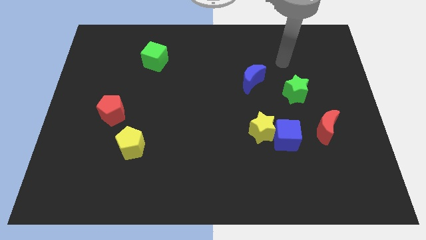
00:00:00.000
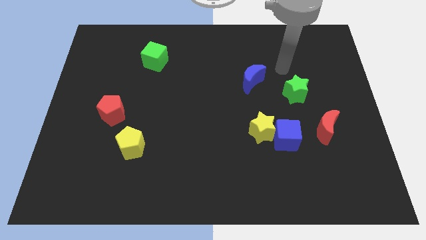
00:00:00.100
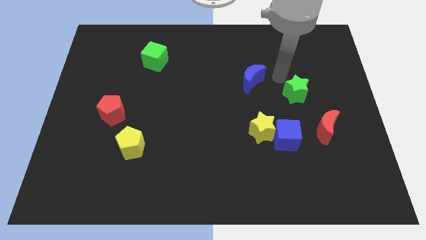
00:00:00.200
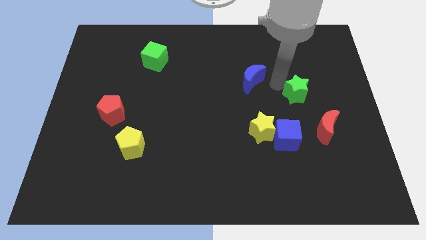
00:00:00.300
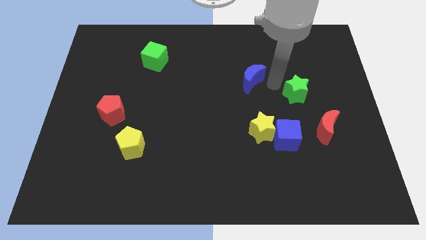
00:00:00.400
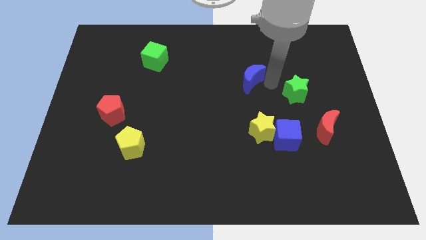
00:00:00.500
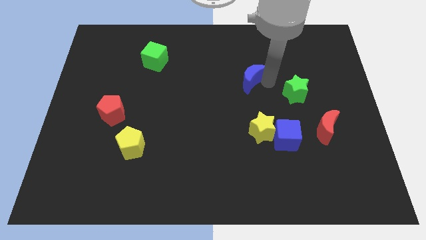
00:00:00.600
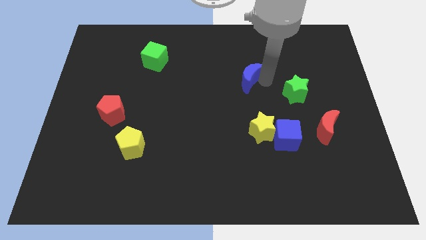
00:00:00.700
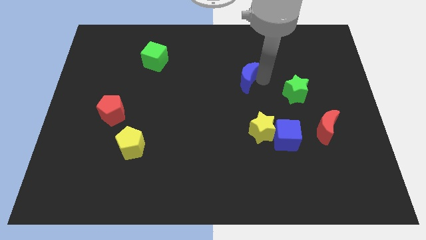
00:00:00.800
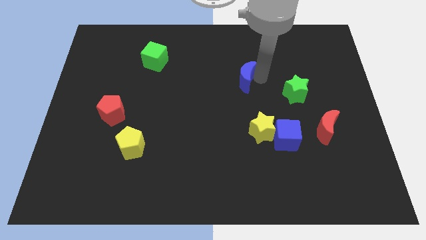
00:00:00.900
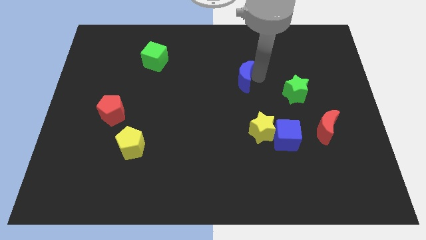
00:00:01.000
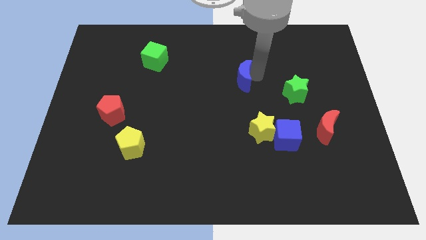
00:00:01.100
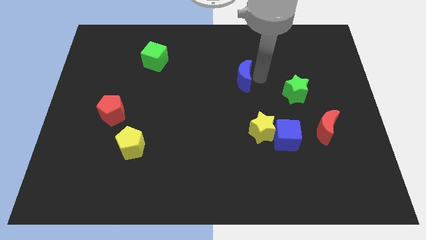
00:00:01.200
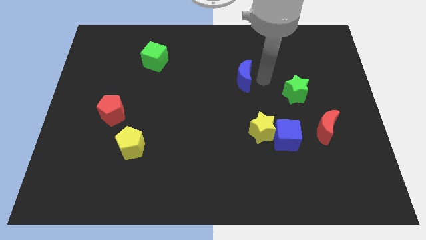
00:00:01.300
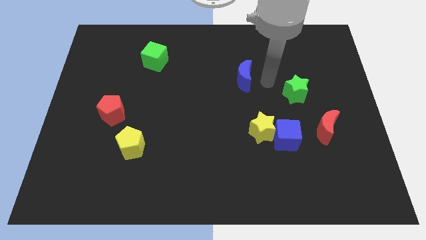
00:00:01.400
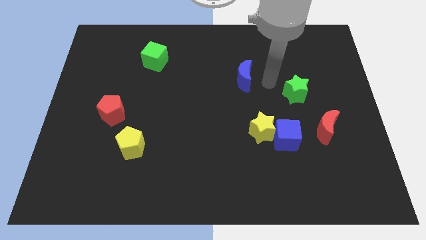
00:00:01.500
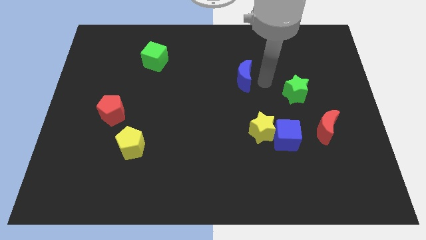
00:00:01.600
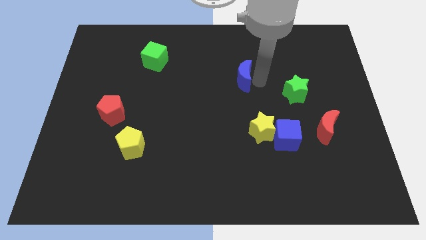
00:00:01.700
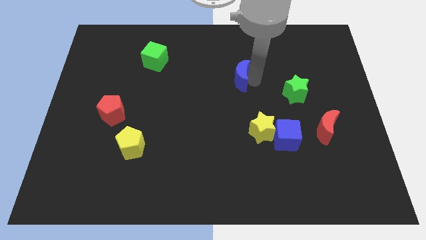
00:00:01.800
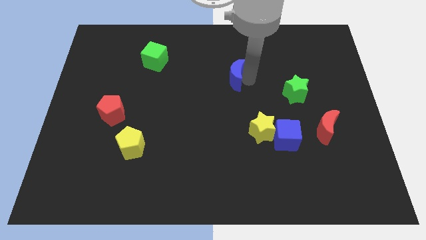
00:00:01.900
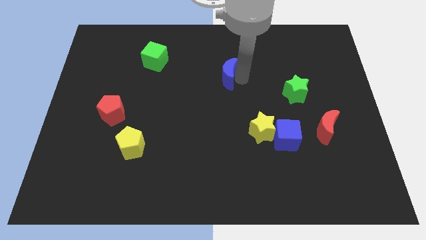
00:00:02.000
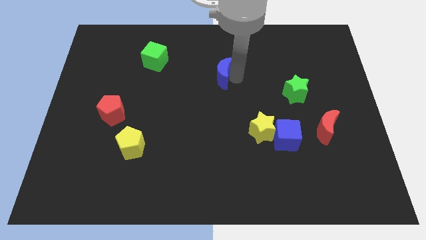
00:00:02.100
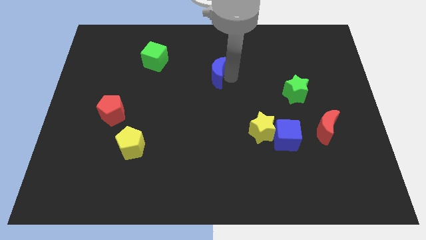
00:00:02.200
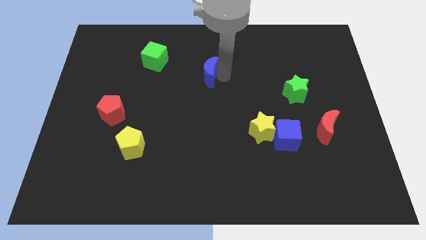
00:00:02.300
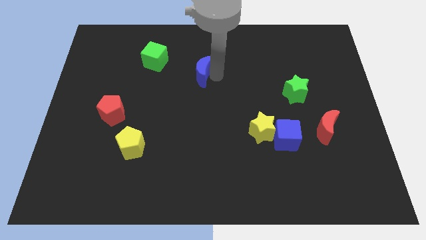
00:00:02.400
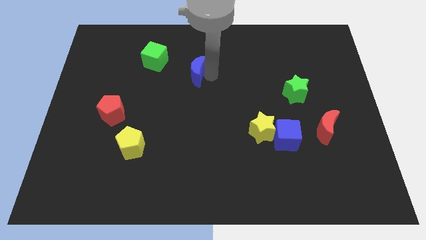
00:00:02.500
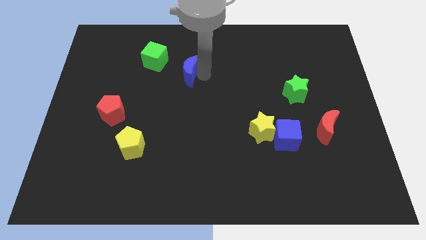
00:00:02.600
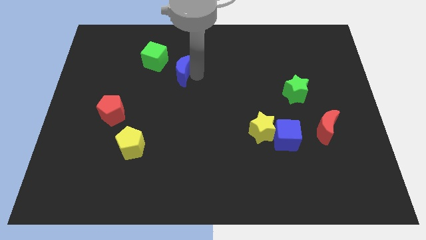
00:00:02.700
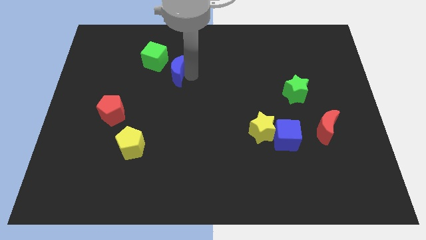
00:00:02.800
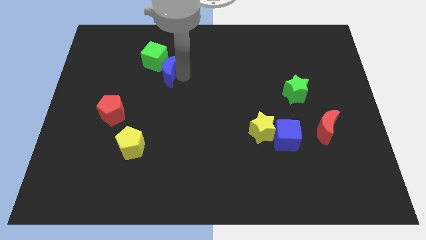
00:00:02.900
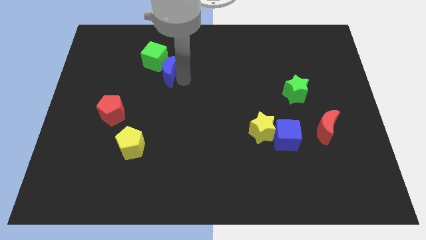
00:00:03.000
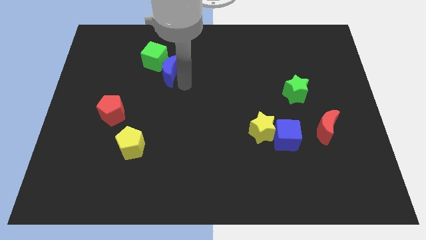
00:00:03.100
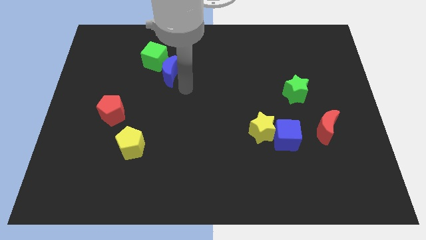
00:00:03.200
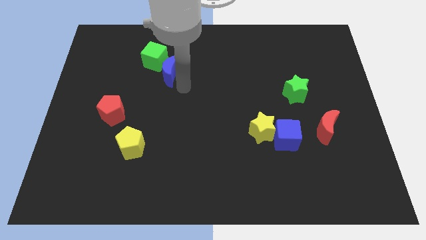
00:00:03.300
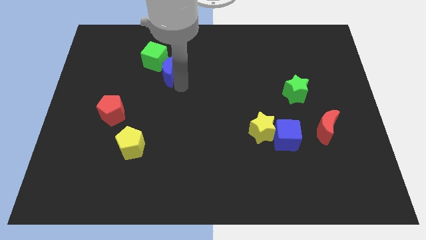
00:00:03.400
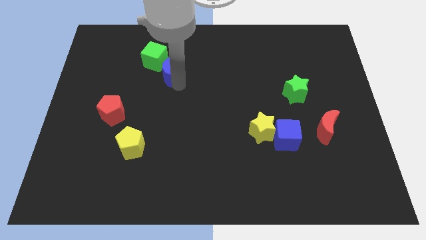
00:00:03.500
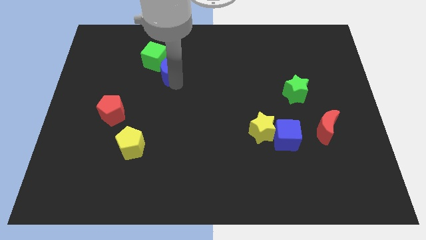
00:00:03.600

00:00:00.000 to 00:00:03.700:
slide the blue moon next to the green cube

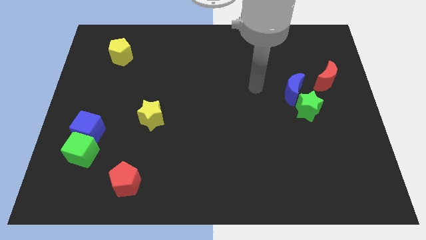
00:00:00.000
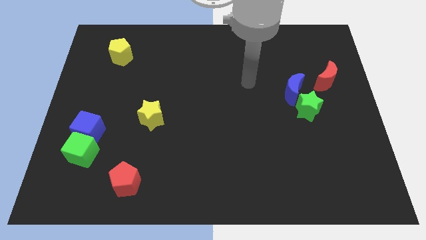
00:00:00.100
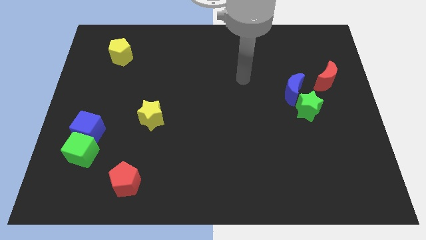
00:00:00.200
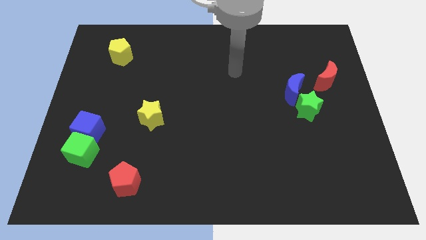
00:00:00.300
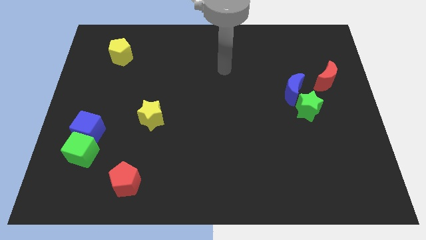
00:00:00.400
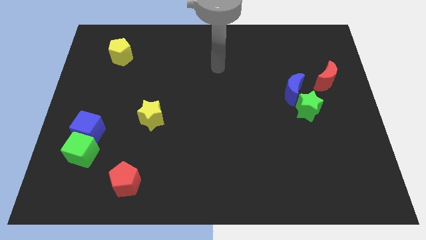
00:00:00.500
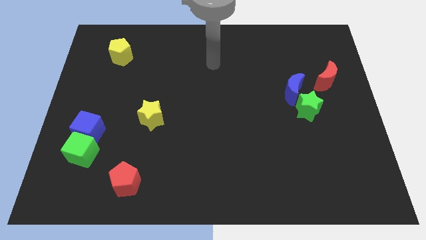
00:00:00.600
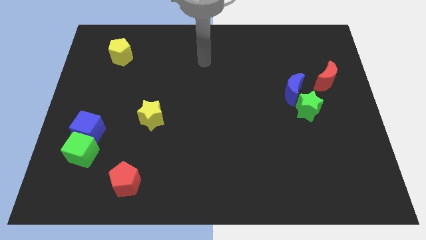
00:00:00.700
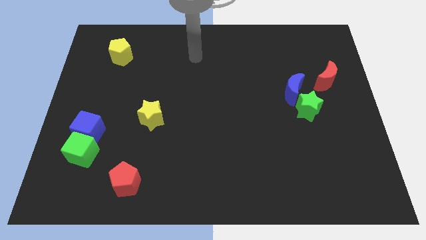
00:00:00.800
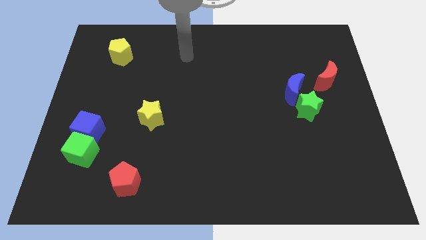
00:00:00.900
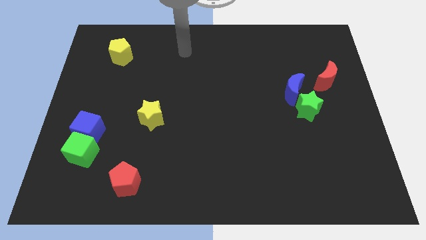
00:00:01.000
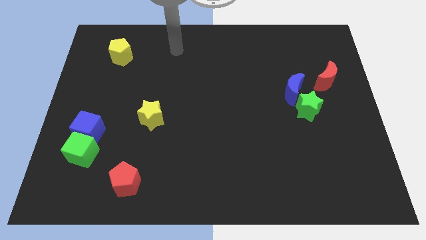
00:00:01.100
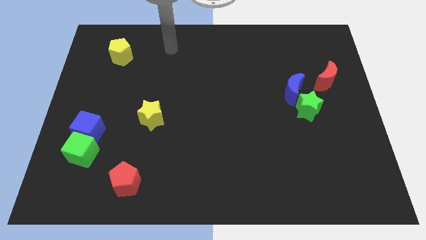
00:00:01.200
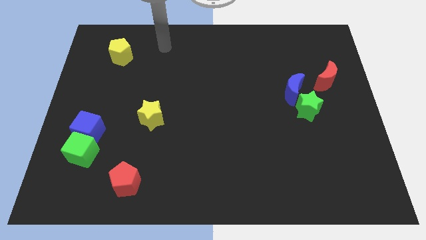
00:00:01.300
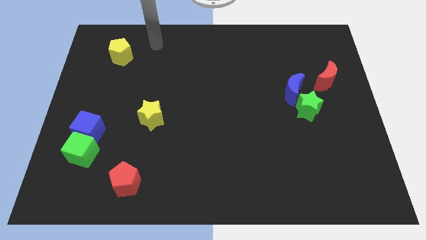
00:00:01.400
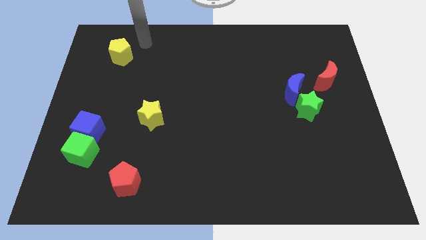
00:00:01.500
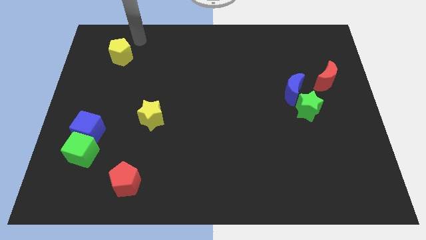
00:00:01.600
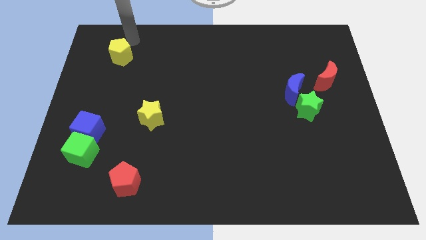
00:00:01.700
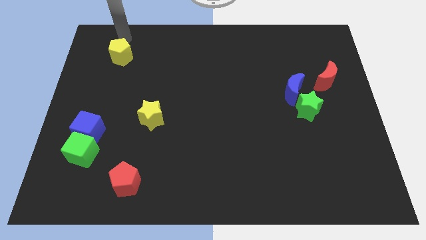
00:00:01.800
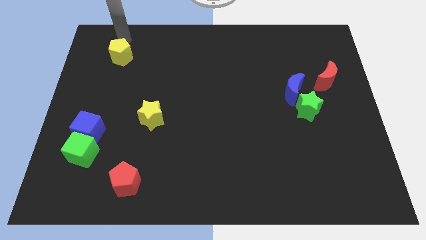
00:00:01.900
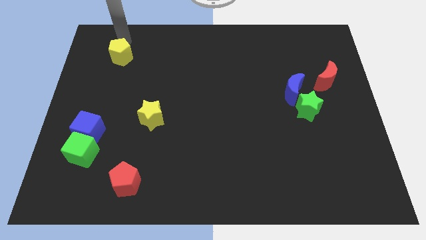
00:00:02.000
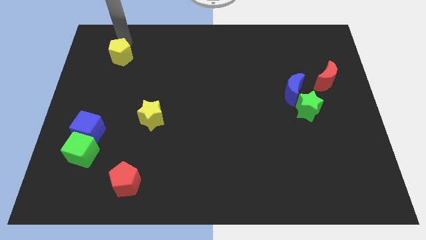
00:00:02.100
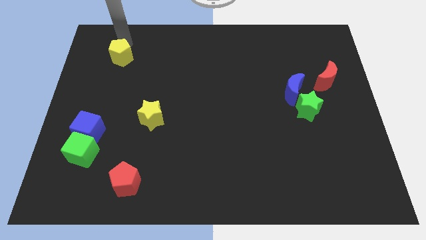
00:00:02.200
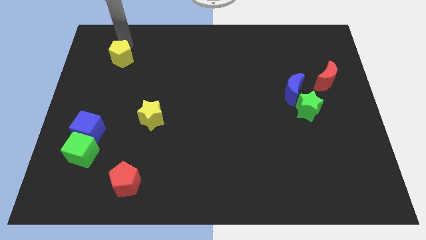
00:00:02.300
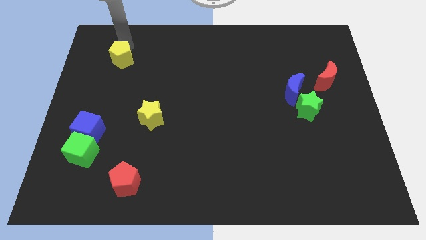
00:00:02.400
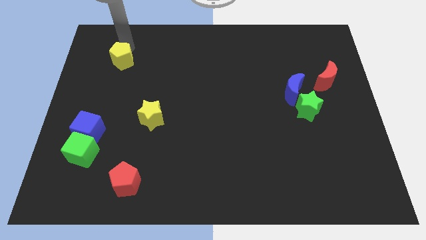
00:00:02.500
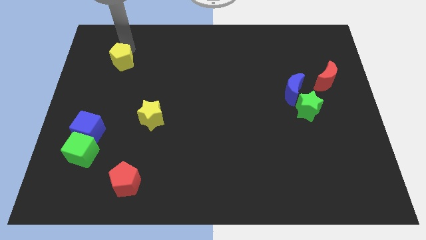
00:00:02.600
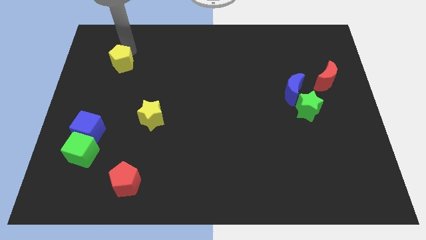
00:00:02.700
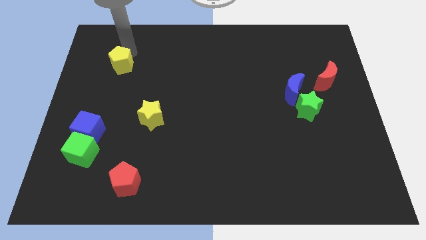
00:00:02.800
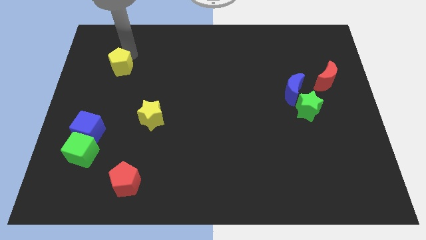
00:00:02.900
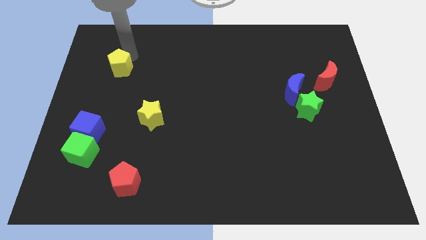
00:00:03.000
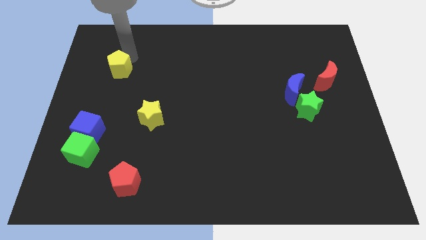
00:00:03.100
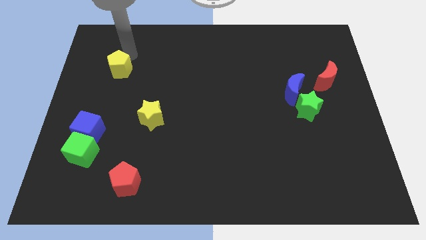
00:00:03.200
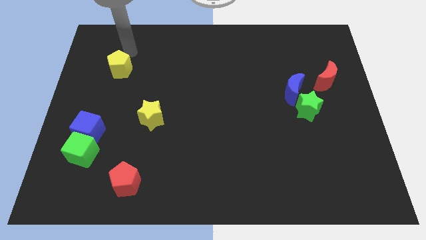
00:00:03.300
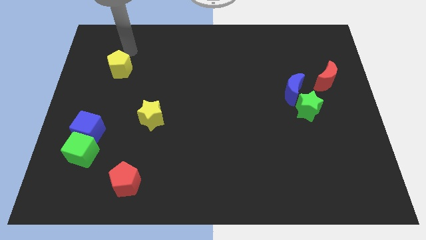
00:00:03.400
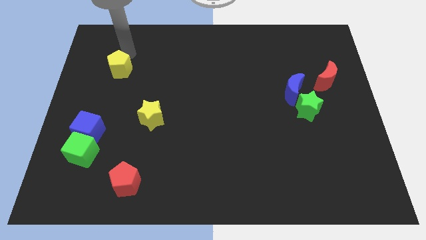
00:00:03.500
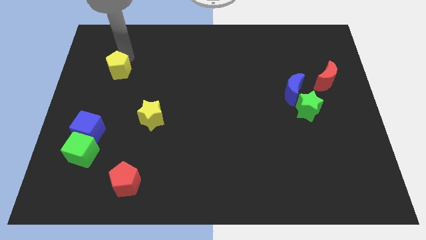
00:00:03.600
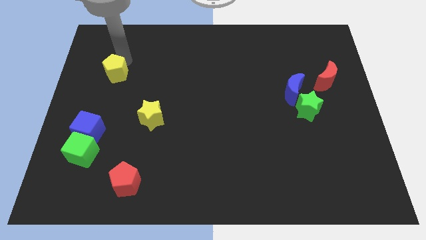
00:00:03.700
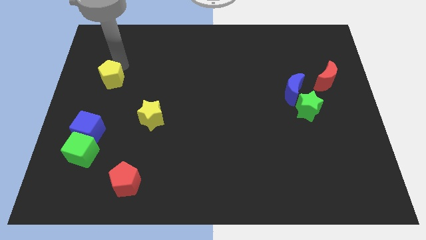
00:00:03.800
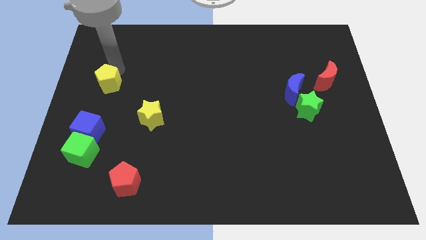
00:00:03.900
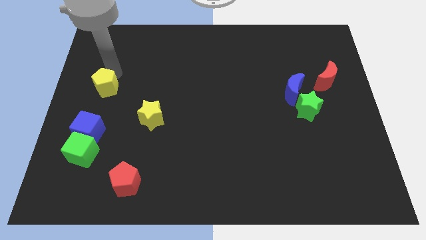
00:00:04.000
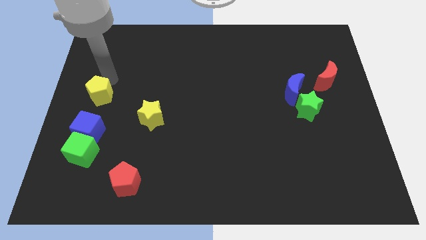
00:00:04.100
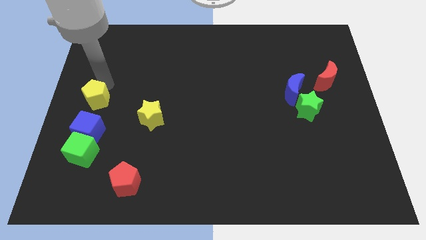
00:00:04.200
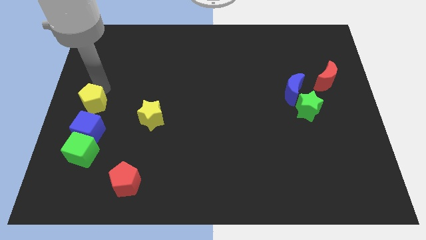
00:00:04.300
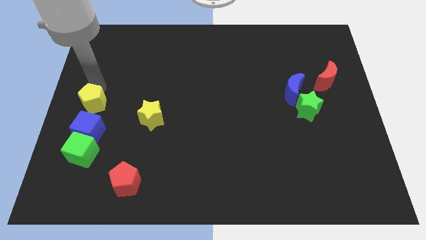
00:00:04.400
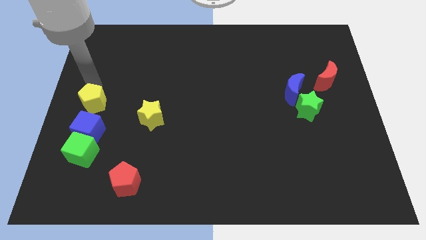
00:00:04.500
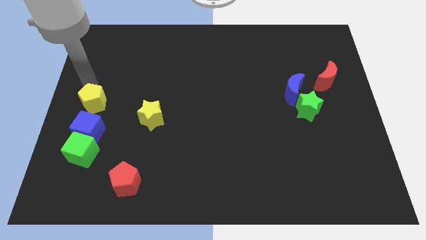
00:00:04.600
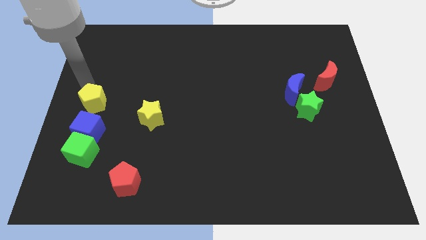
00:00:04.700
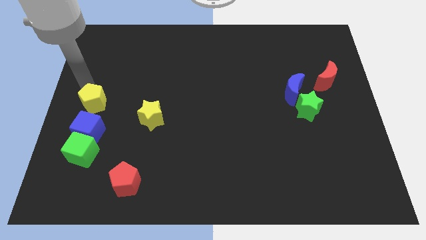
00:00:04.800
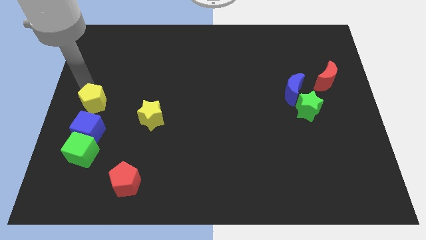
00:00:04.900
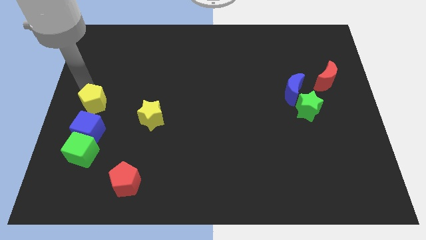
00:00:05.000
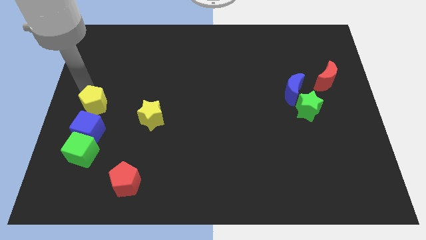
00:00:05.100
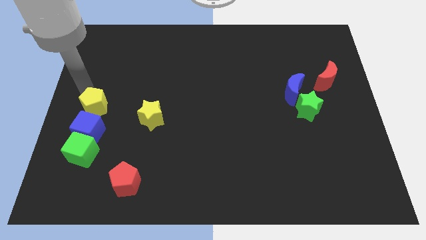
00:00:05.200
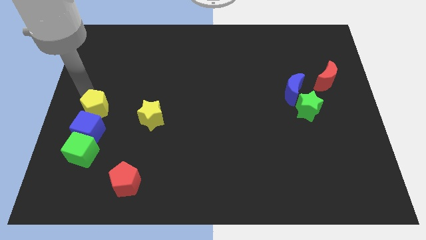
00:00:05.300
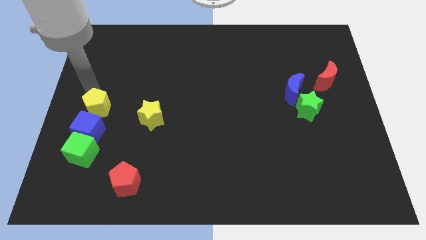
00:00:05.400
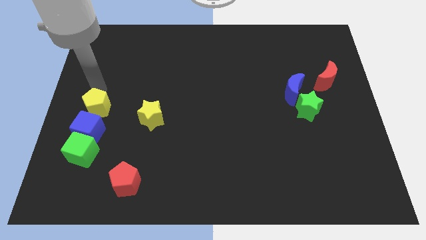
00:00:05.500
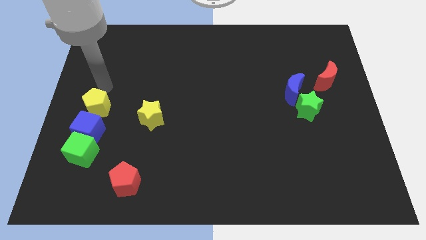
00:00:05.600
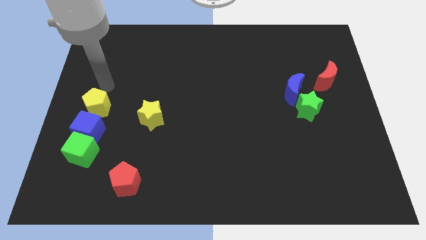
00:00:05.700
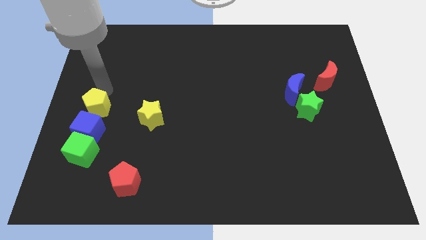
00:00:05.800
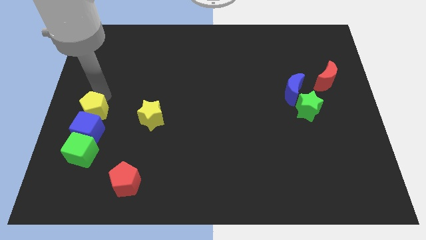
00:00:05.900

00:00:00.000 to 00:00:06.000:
put the yellow pentagon next to the blue cube
